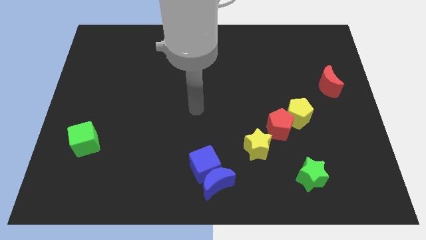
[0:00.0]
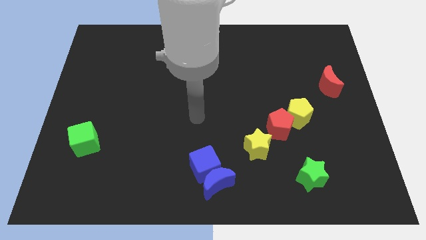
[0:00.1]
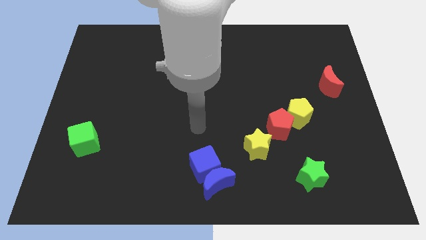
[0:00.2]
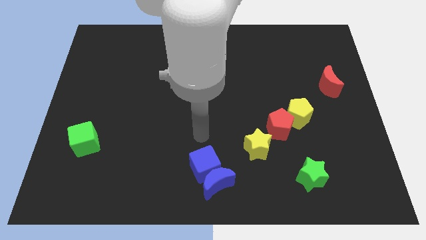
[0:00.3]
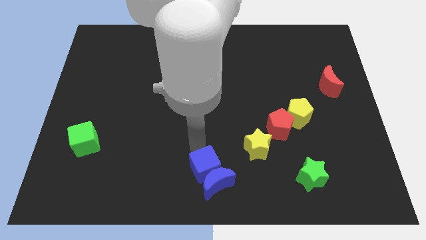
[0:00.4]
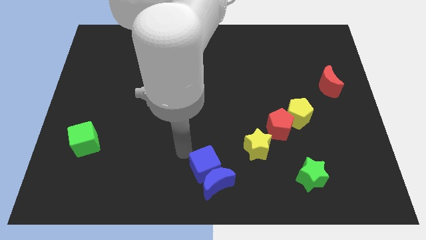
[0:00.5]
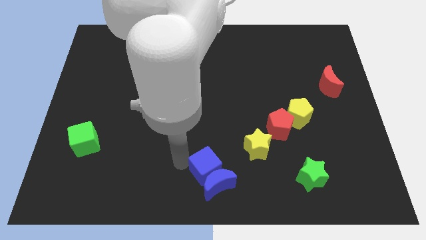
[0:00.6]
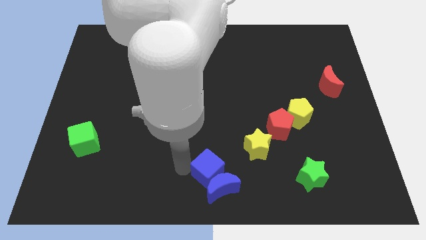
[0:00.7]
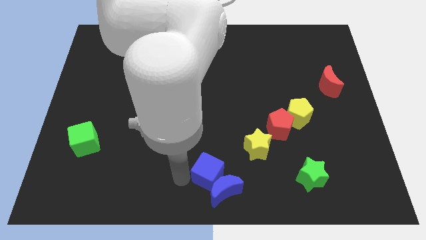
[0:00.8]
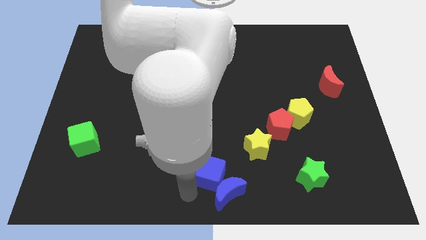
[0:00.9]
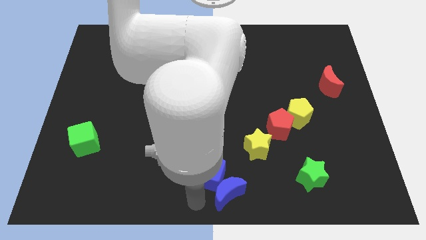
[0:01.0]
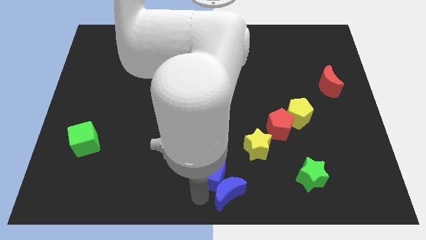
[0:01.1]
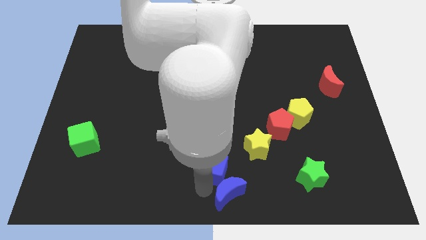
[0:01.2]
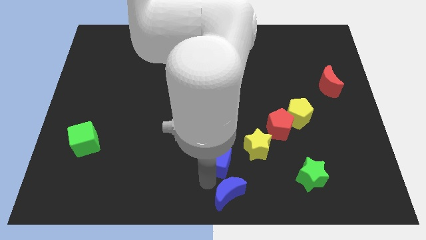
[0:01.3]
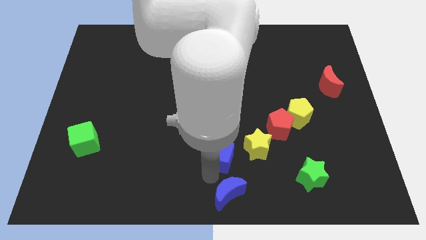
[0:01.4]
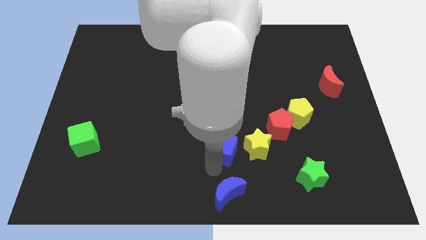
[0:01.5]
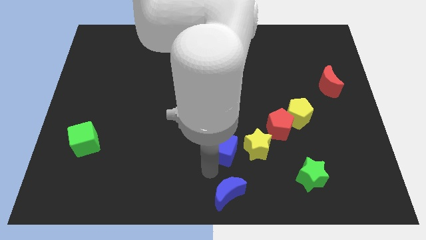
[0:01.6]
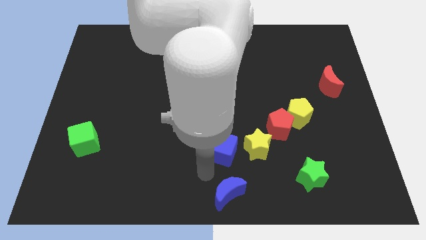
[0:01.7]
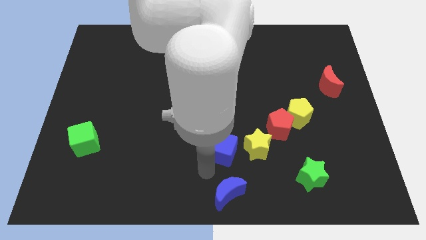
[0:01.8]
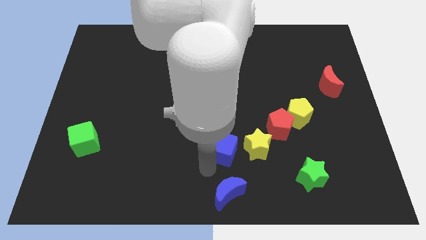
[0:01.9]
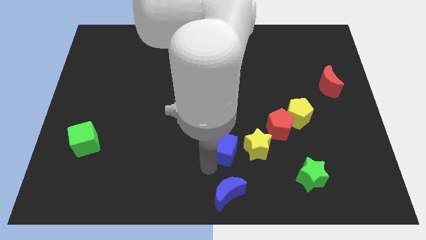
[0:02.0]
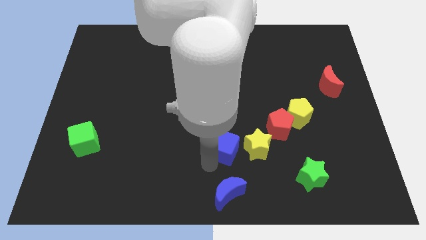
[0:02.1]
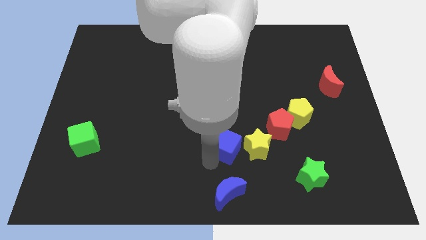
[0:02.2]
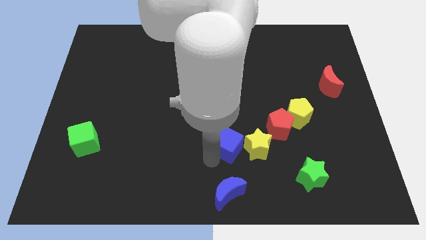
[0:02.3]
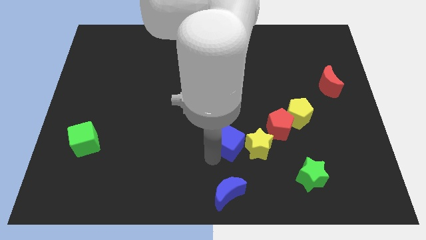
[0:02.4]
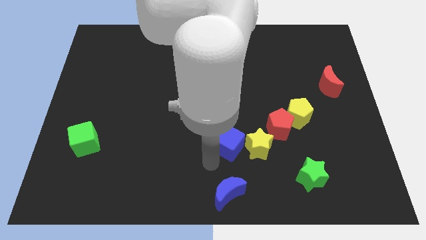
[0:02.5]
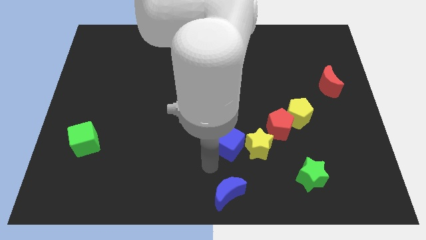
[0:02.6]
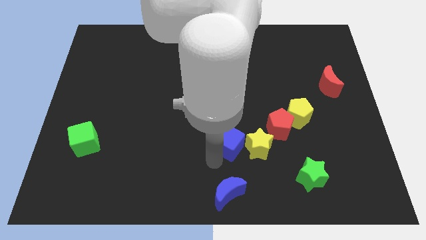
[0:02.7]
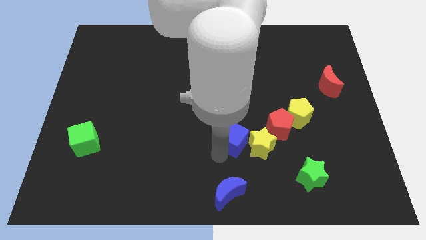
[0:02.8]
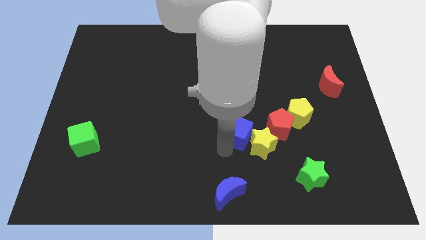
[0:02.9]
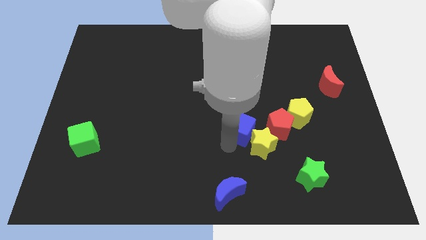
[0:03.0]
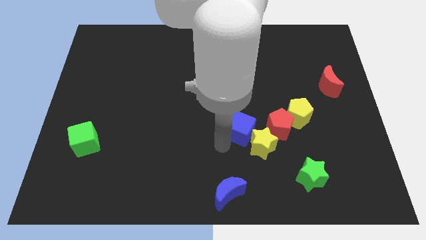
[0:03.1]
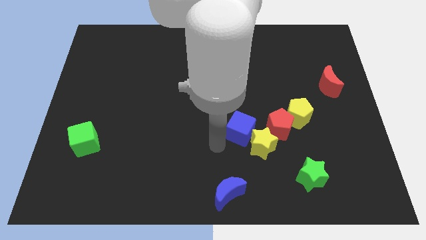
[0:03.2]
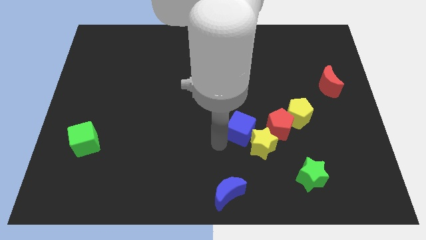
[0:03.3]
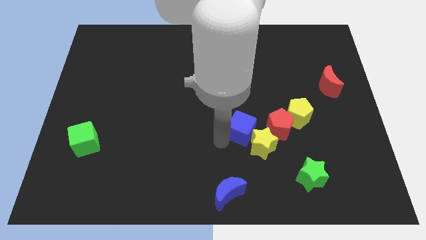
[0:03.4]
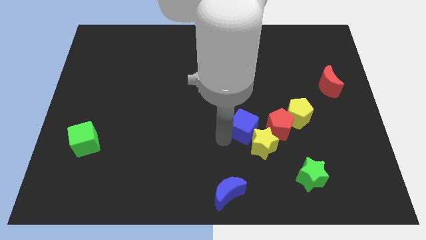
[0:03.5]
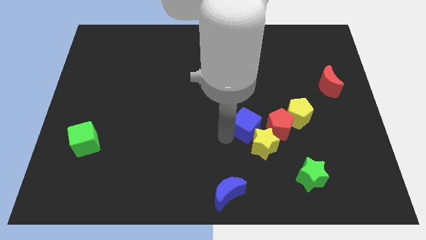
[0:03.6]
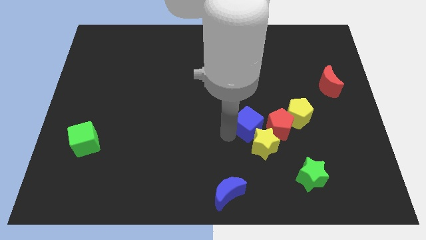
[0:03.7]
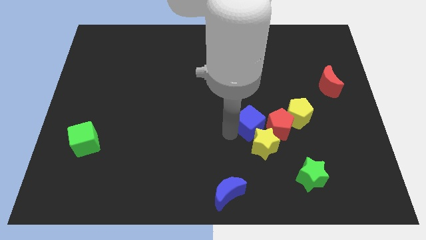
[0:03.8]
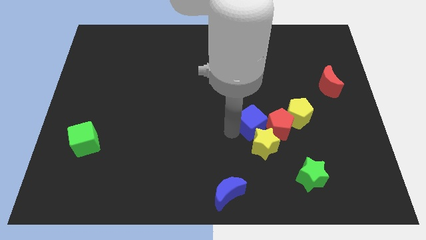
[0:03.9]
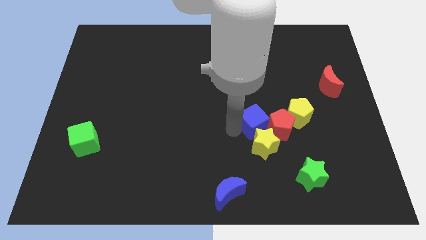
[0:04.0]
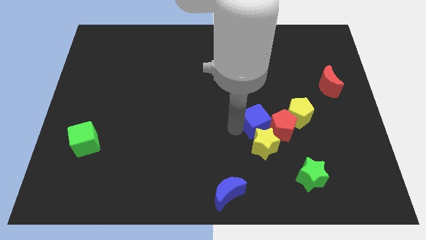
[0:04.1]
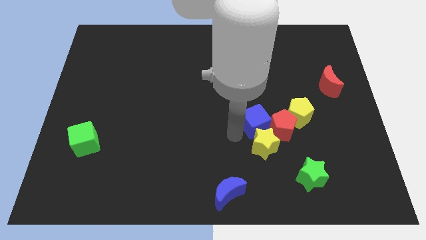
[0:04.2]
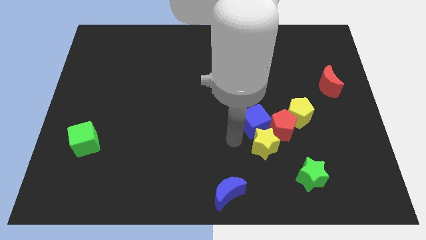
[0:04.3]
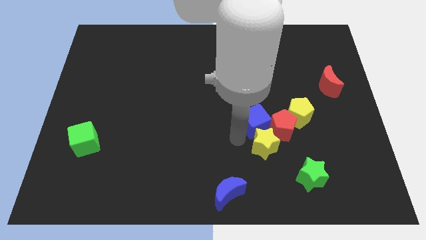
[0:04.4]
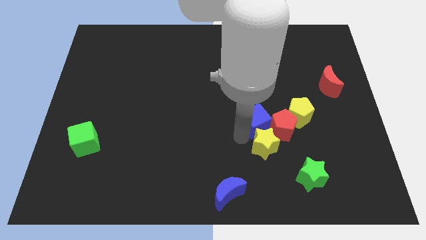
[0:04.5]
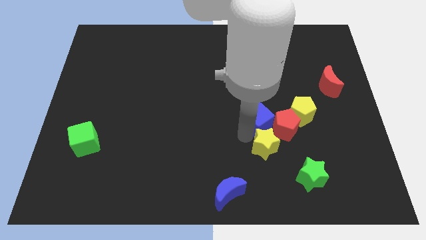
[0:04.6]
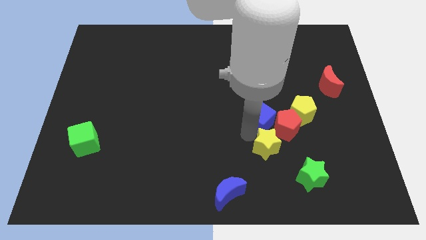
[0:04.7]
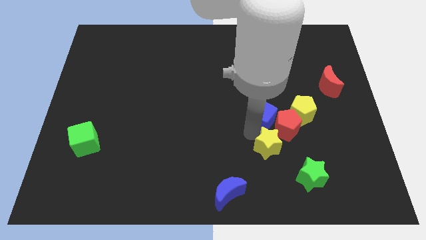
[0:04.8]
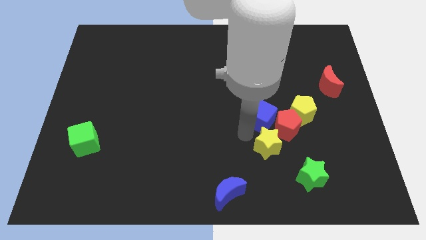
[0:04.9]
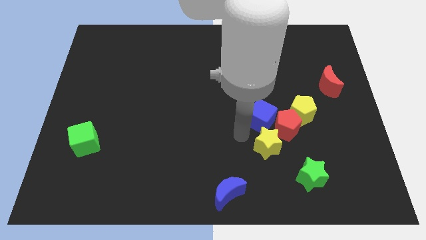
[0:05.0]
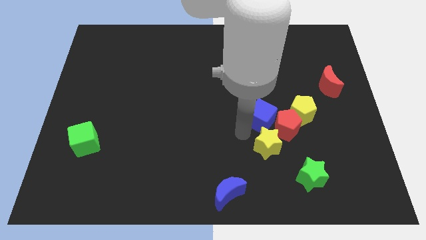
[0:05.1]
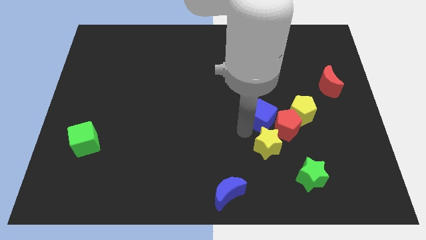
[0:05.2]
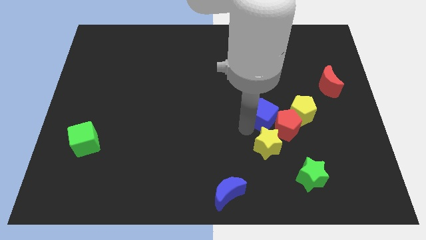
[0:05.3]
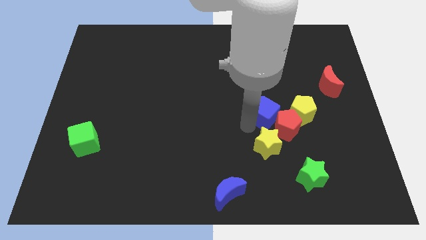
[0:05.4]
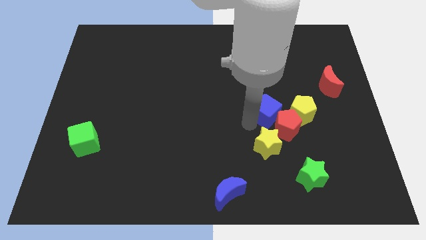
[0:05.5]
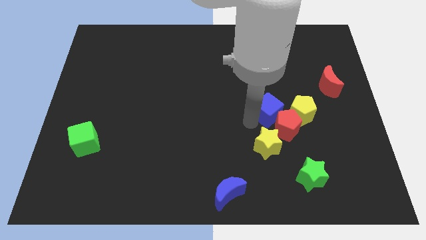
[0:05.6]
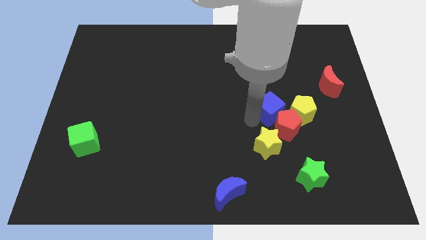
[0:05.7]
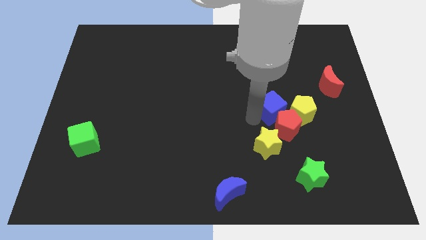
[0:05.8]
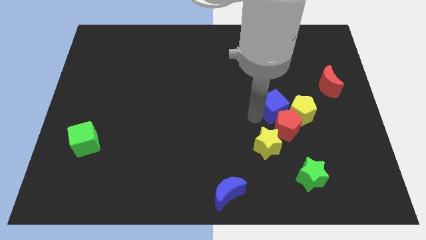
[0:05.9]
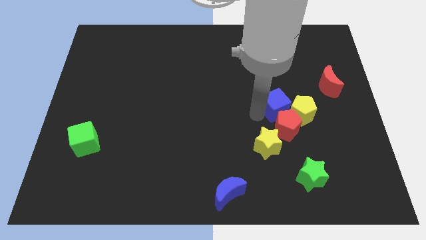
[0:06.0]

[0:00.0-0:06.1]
put the blue cube to the yellow pentagon

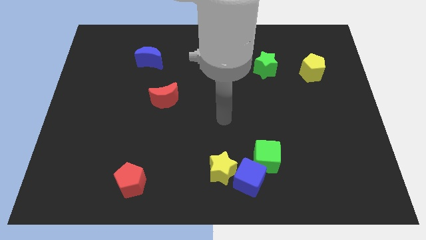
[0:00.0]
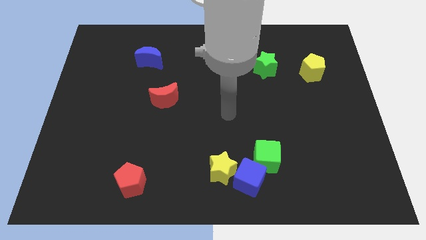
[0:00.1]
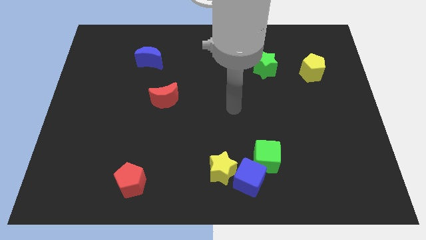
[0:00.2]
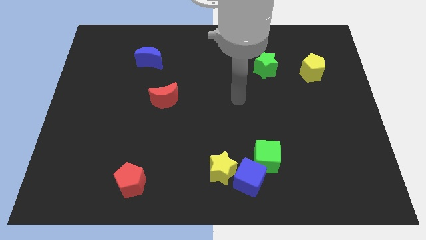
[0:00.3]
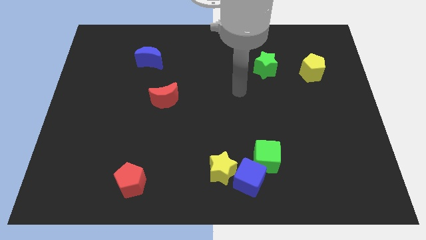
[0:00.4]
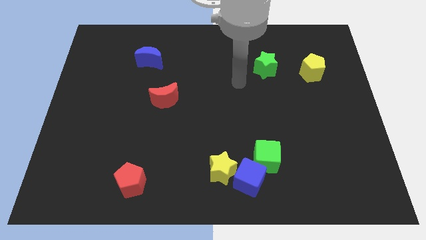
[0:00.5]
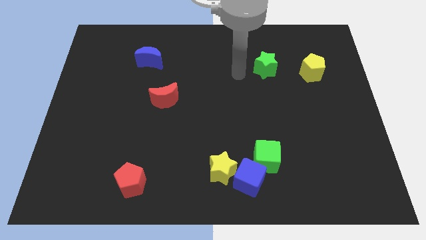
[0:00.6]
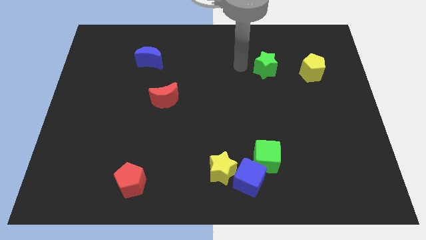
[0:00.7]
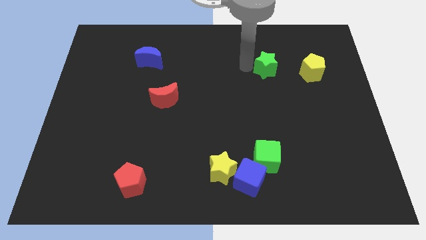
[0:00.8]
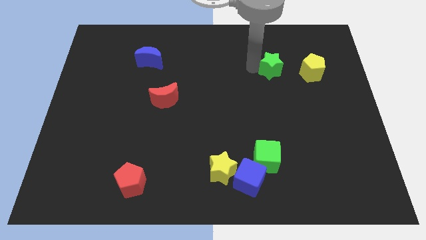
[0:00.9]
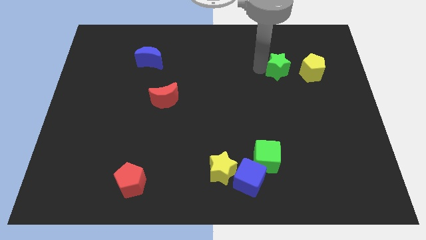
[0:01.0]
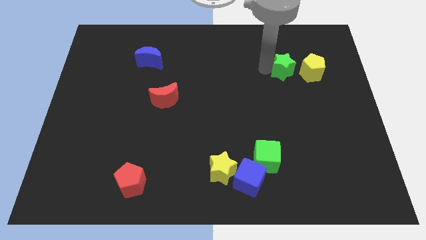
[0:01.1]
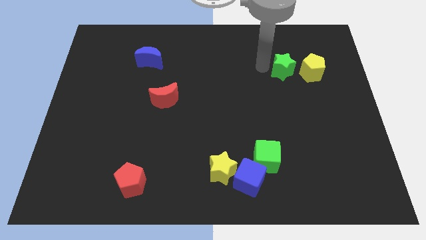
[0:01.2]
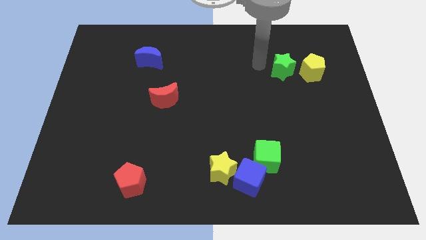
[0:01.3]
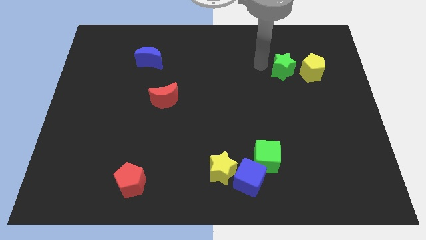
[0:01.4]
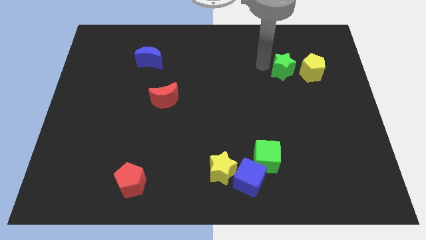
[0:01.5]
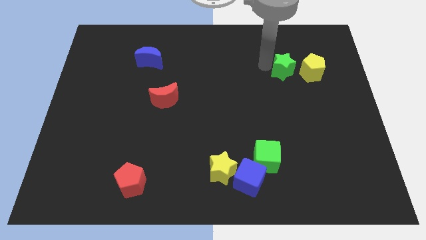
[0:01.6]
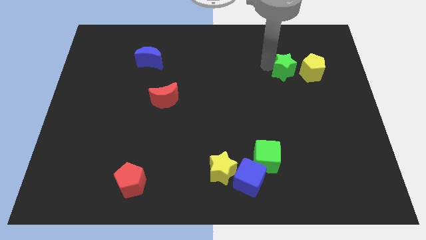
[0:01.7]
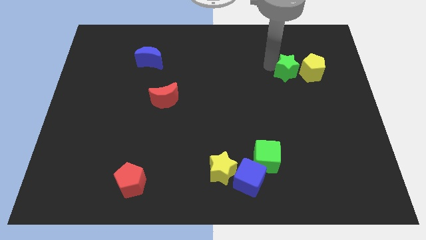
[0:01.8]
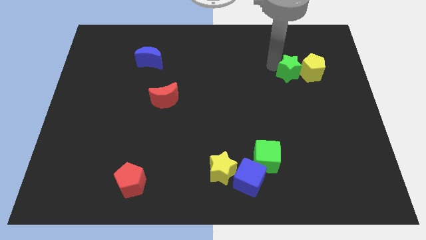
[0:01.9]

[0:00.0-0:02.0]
slide the green star to the yellow pentagon
